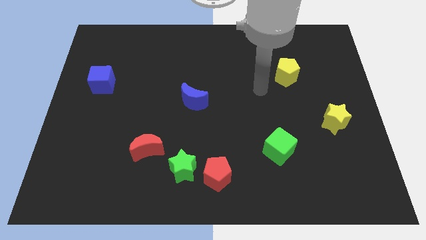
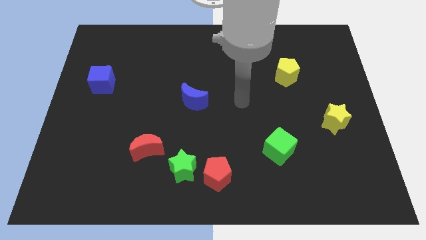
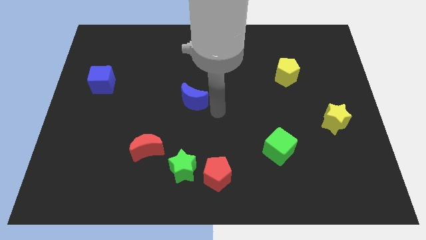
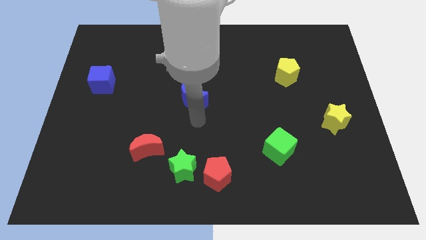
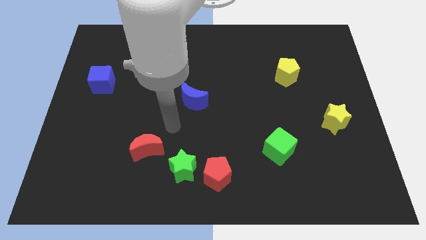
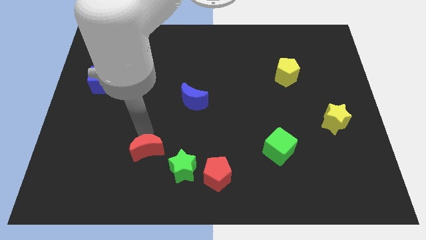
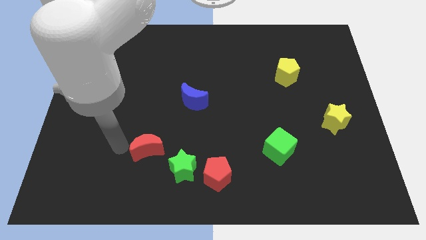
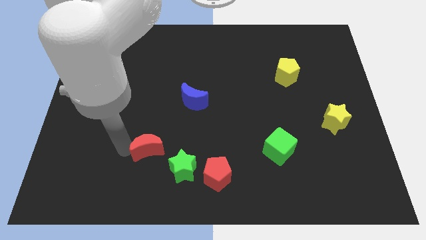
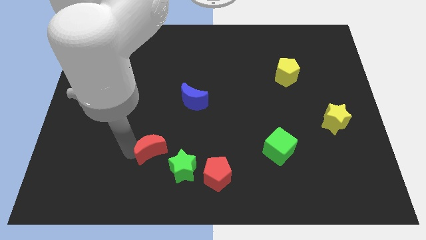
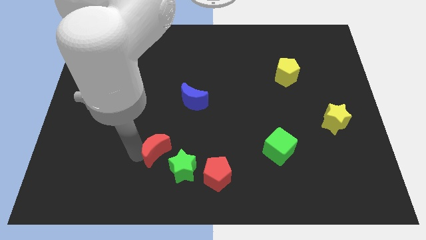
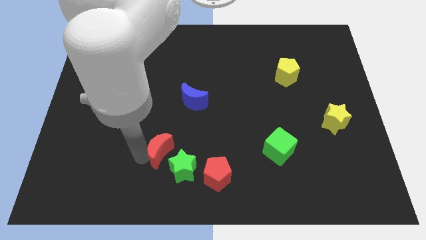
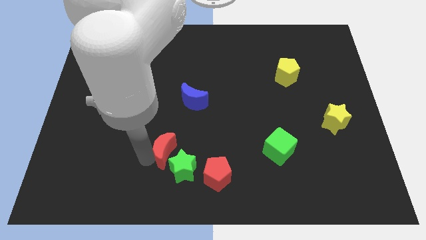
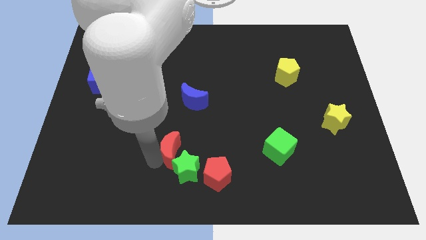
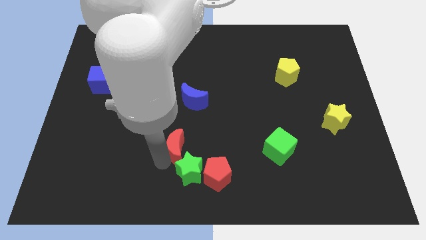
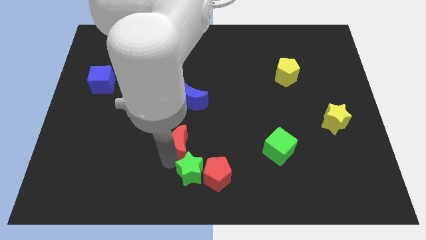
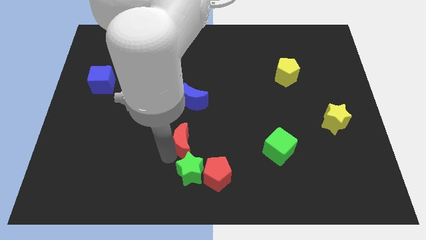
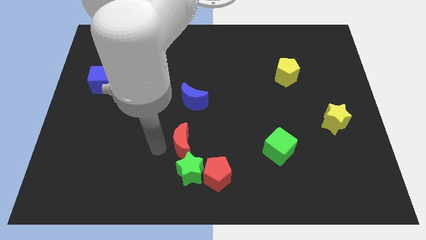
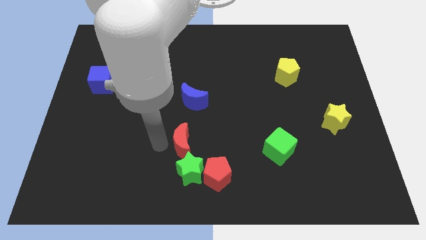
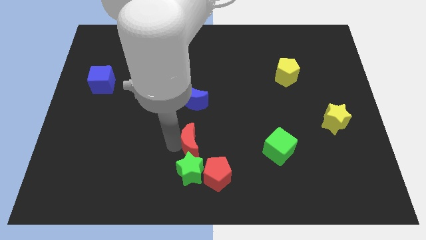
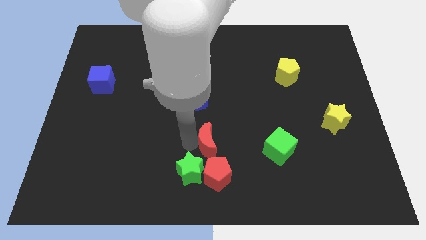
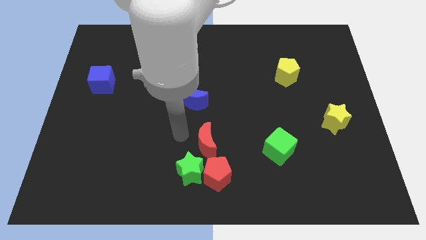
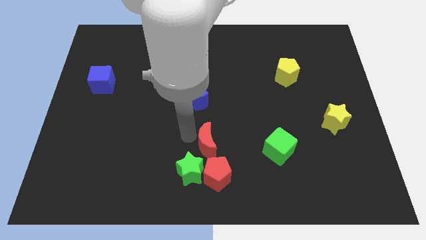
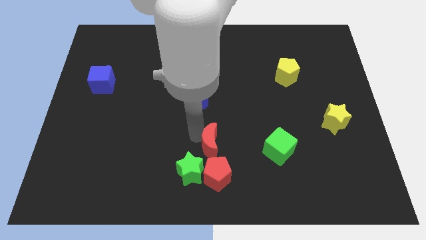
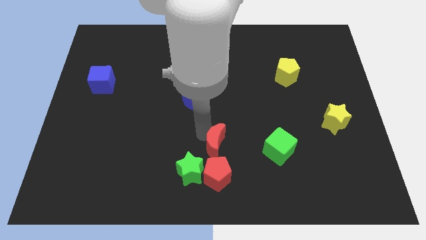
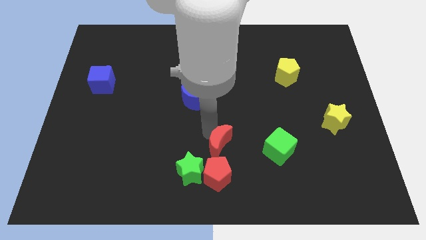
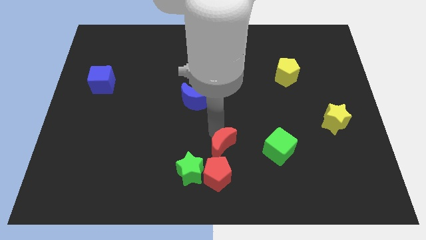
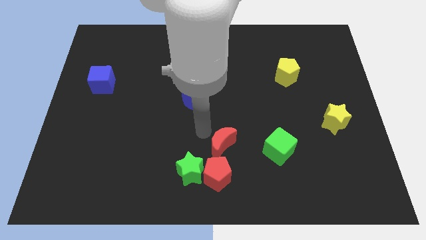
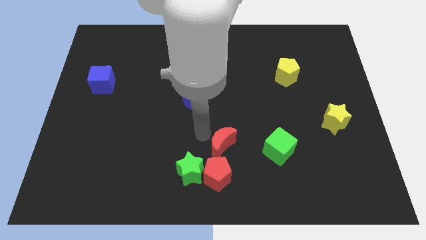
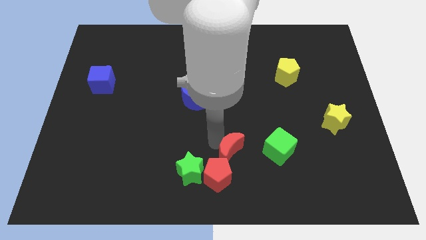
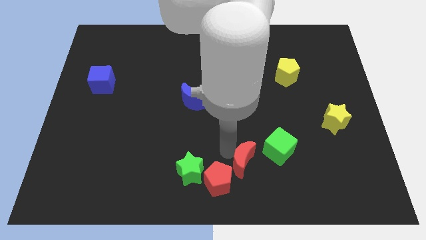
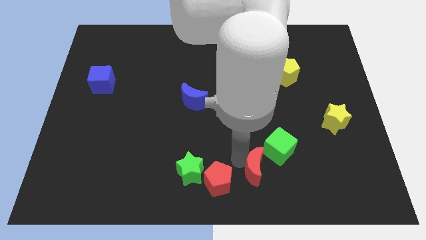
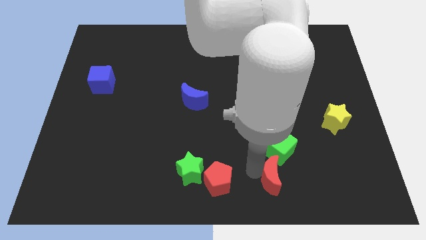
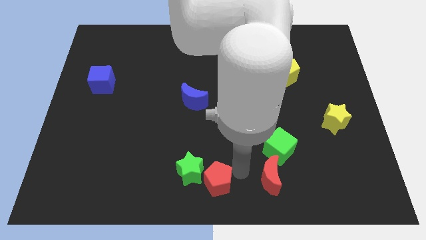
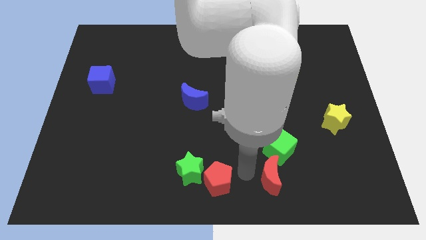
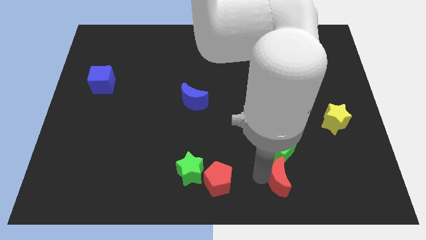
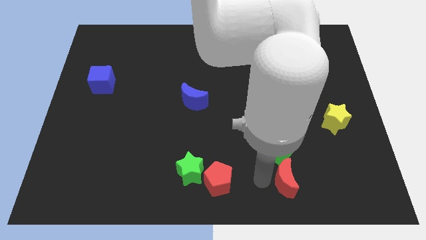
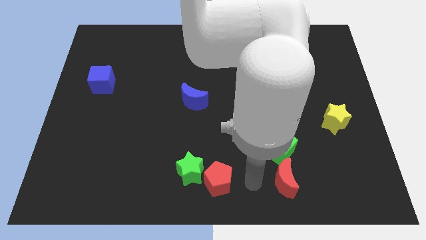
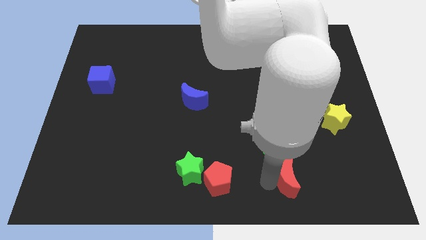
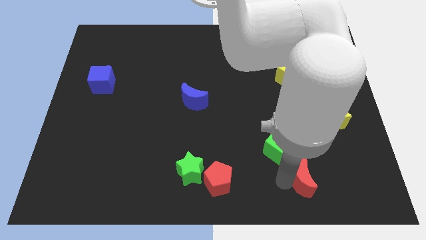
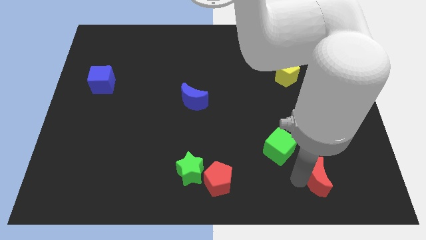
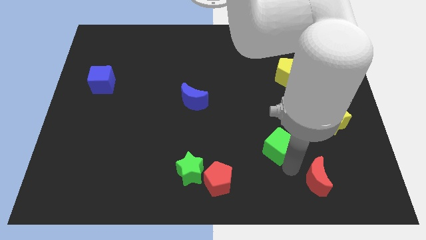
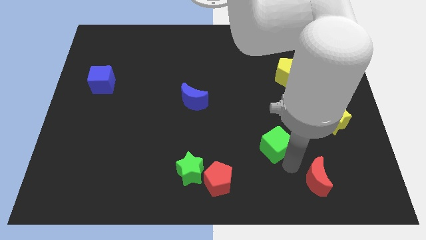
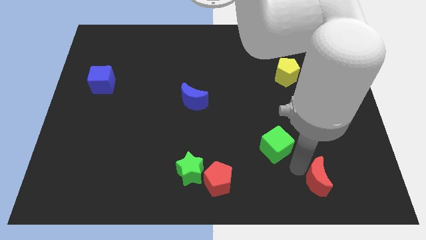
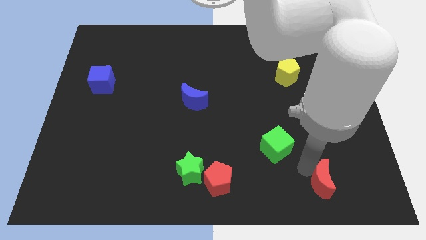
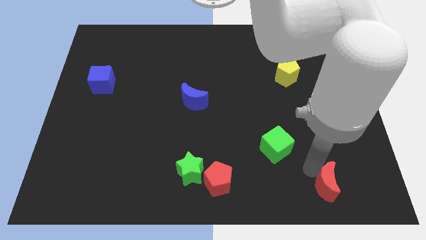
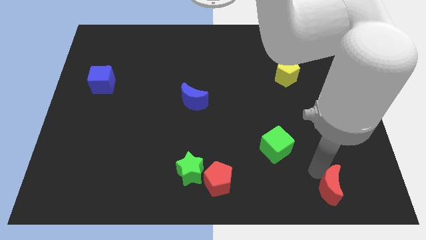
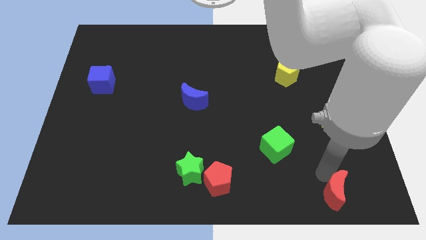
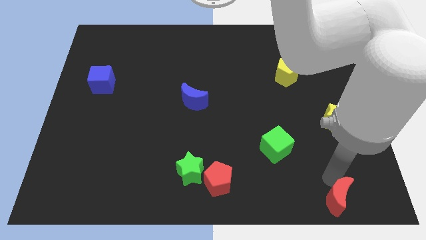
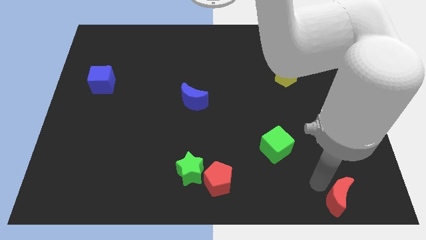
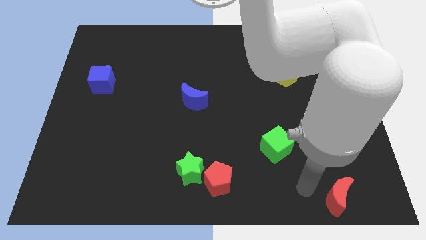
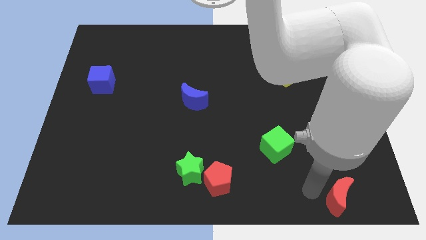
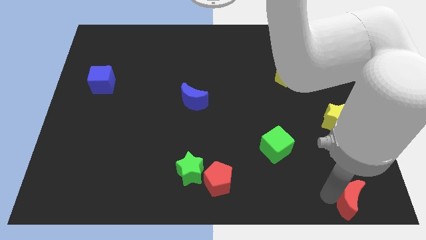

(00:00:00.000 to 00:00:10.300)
push the red moon to the bottom right of the board

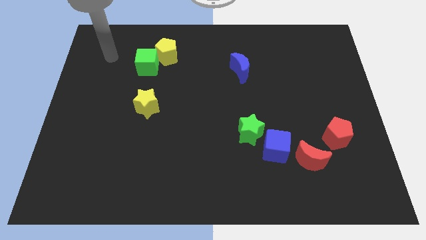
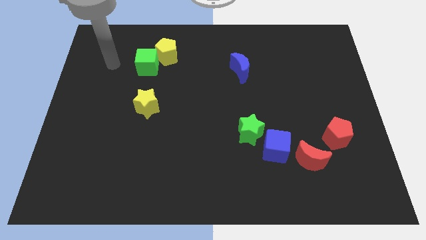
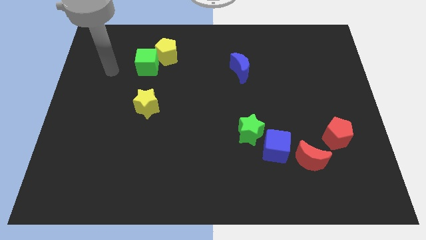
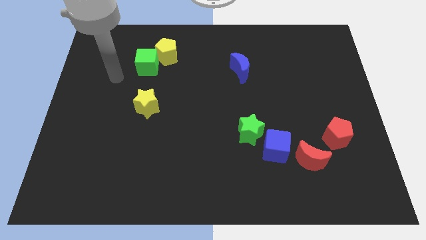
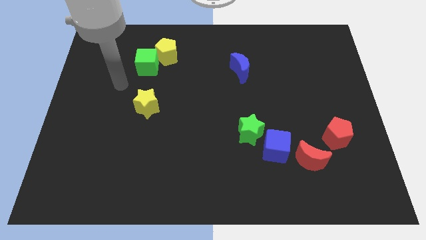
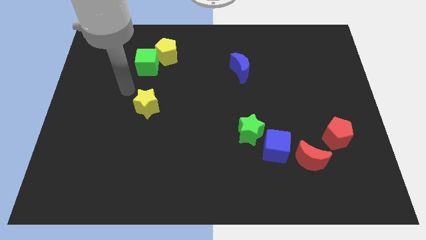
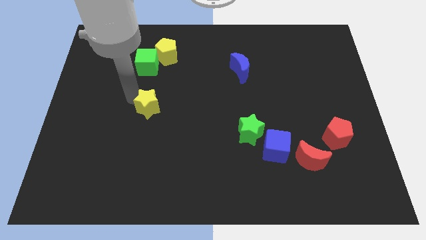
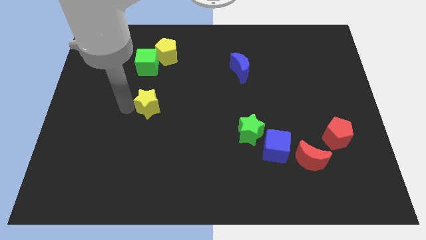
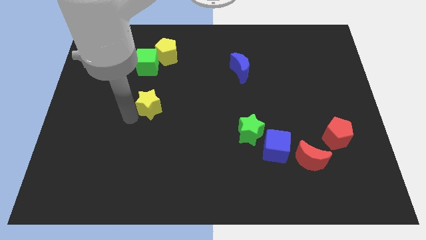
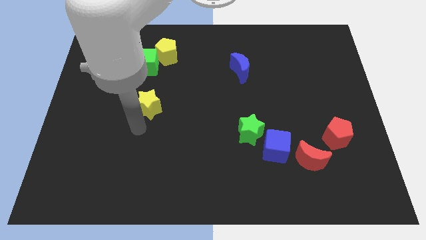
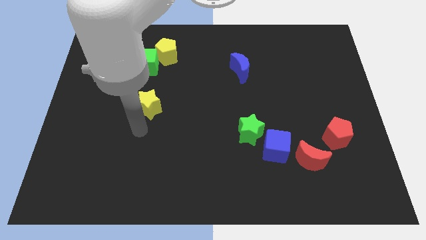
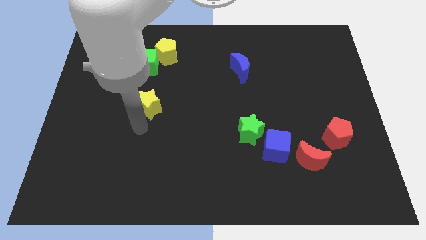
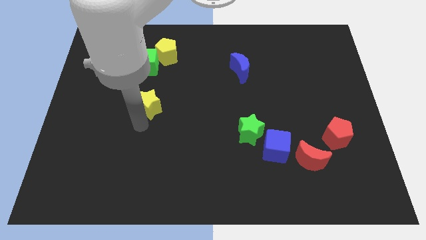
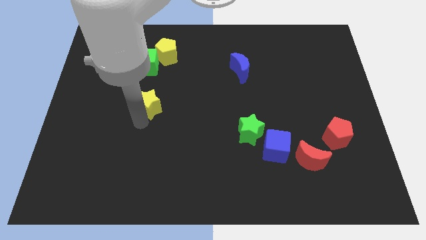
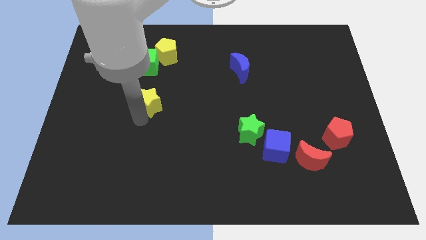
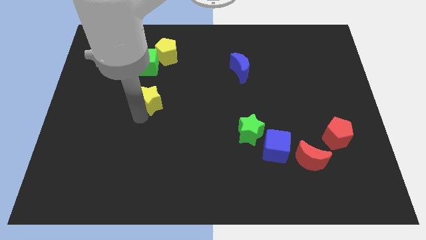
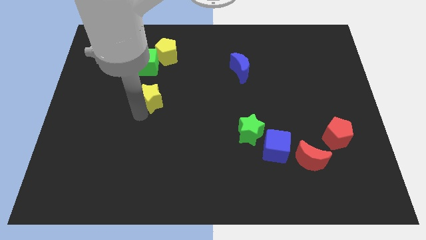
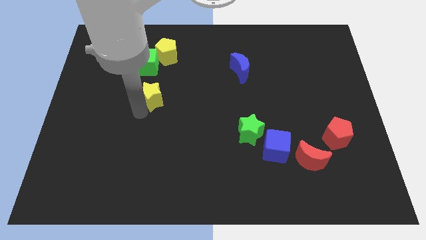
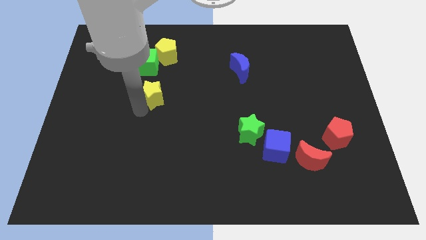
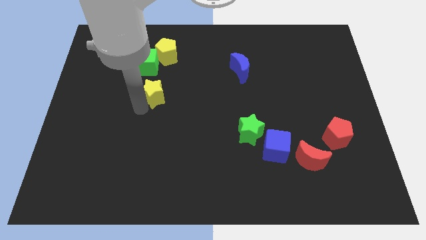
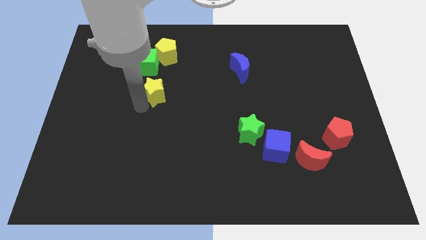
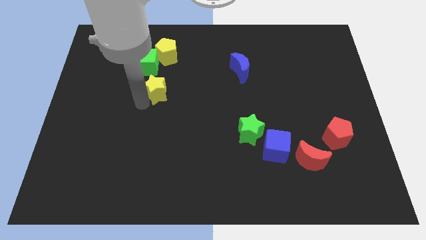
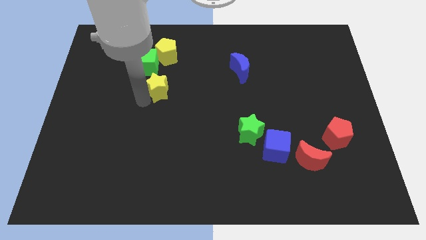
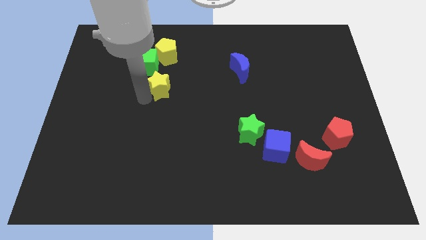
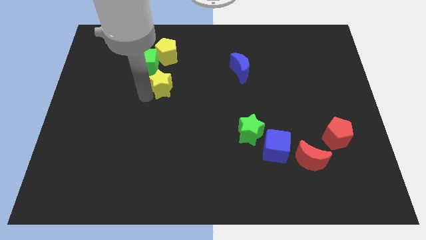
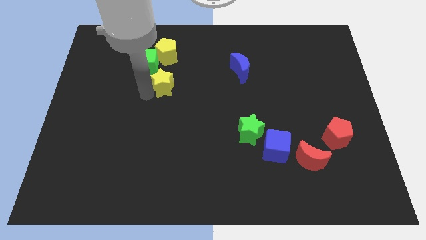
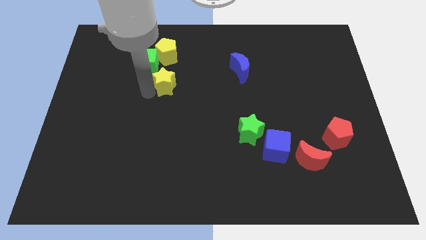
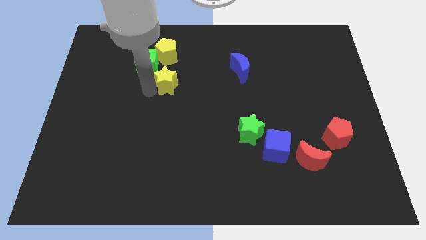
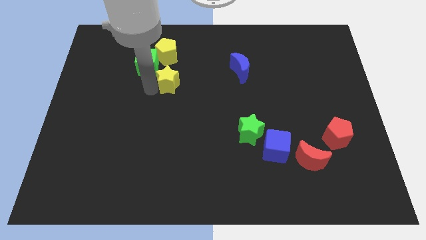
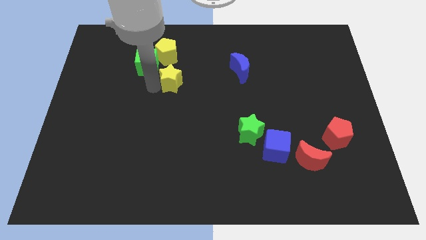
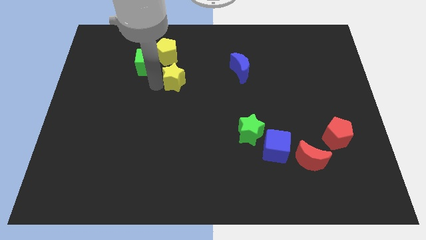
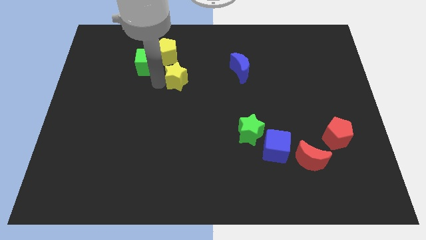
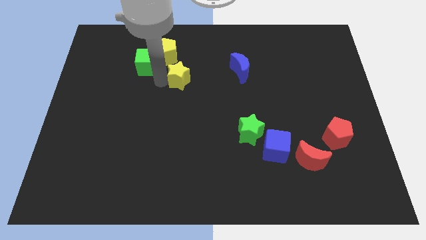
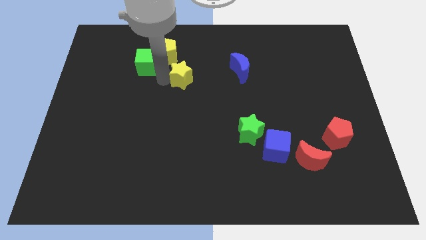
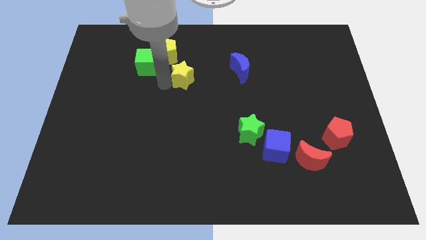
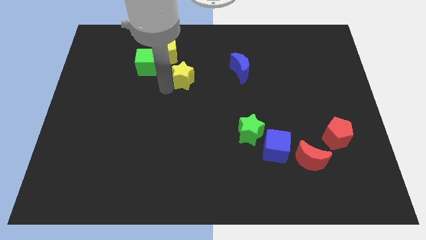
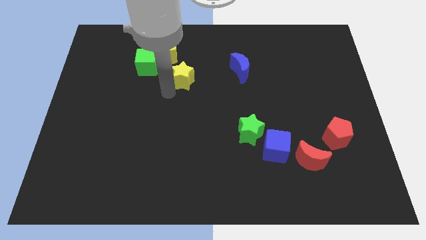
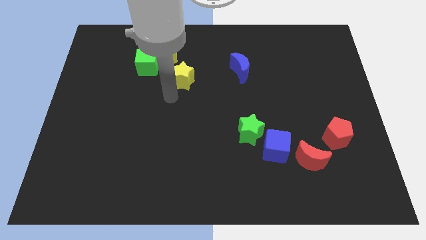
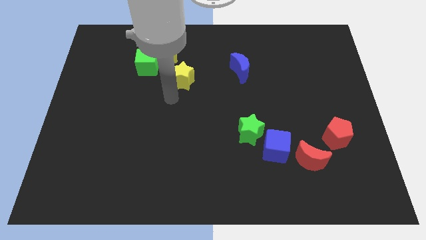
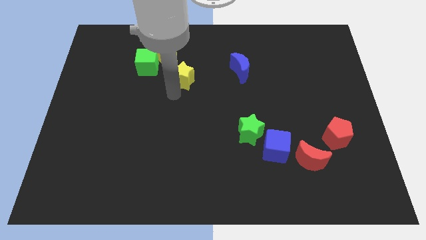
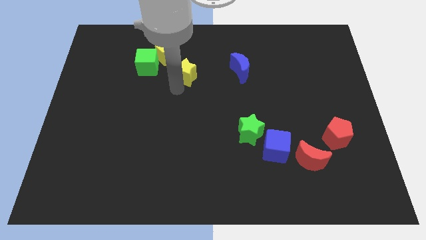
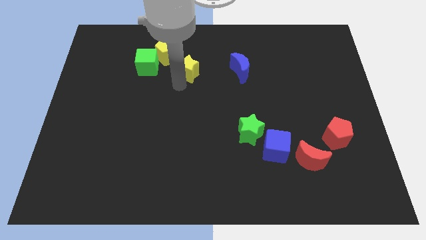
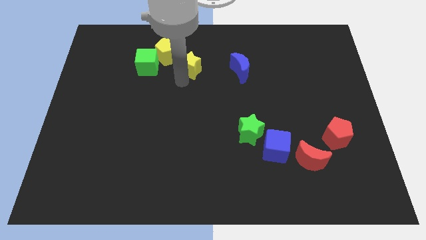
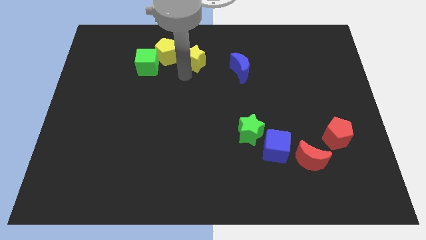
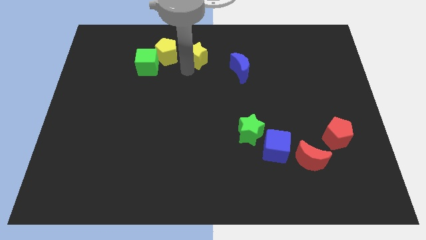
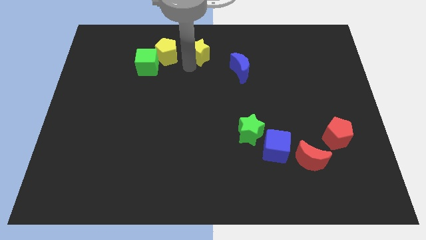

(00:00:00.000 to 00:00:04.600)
push the yellow star to the top
